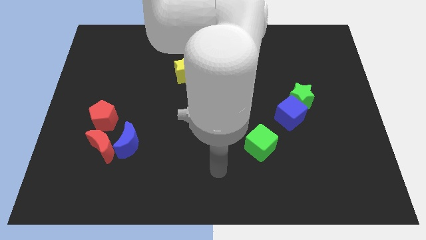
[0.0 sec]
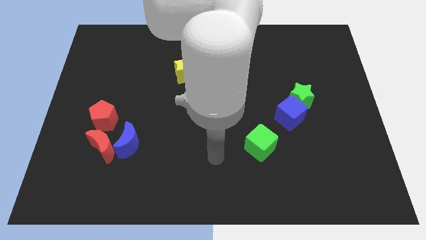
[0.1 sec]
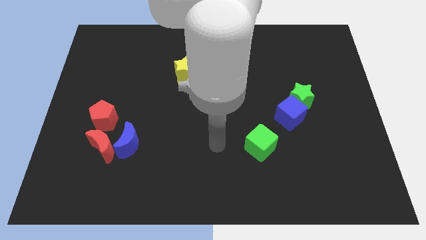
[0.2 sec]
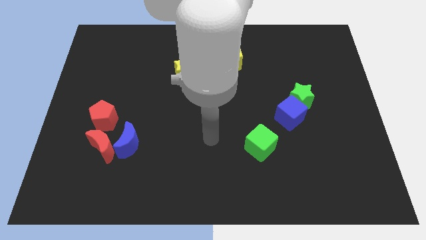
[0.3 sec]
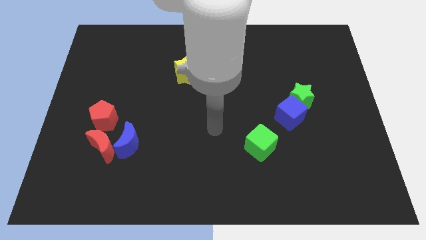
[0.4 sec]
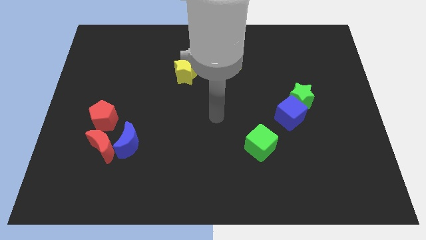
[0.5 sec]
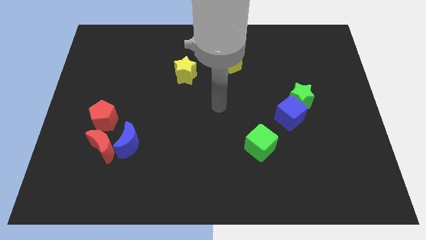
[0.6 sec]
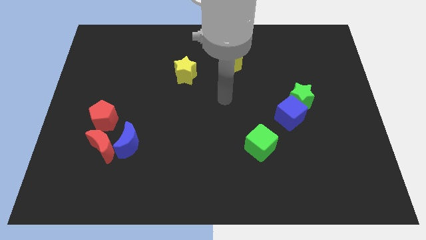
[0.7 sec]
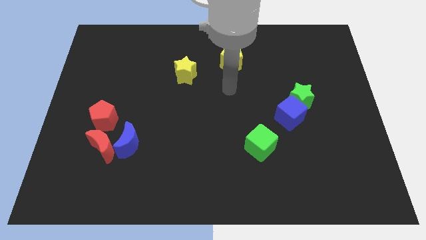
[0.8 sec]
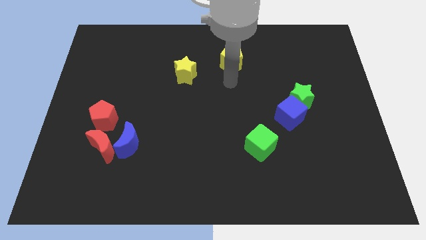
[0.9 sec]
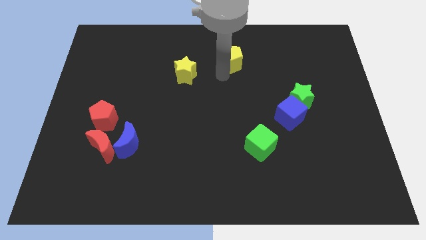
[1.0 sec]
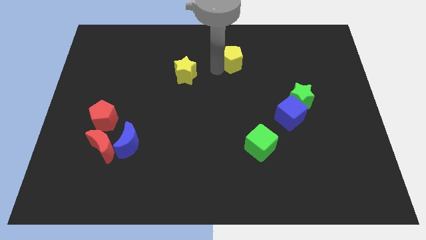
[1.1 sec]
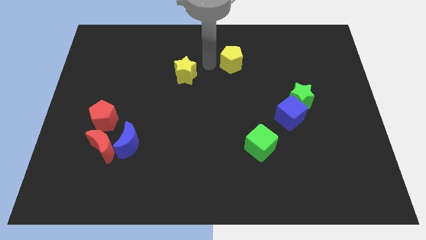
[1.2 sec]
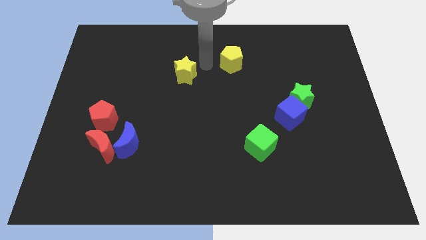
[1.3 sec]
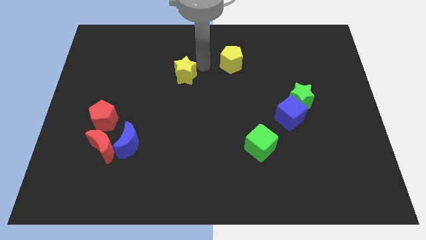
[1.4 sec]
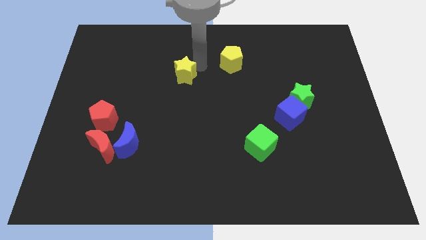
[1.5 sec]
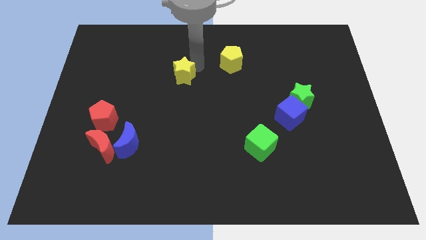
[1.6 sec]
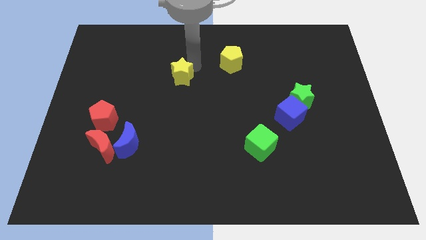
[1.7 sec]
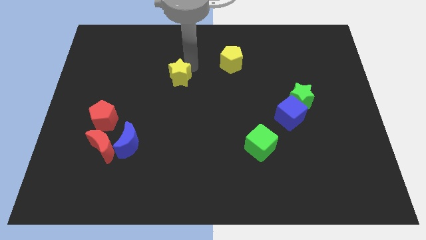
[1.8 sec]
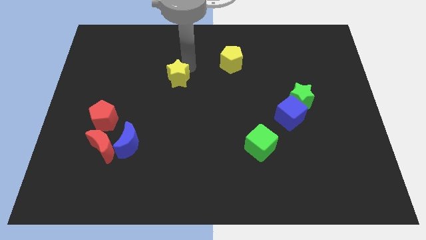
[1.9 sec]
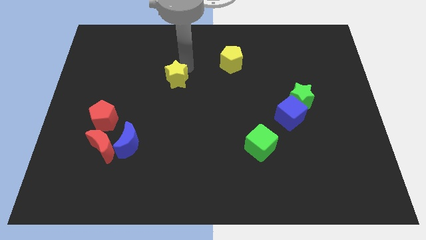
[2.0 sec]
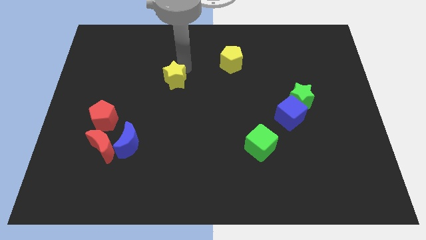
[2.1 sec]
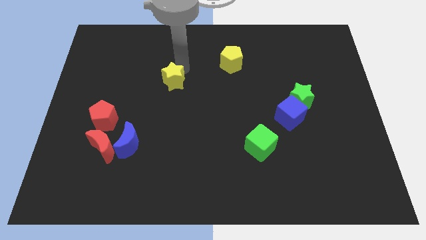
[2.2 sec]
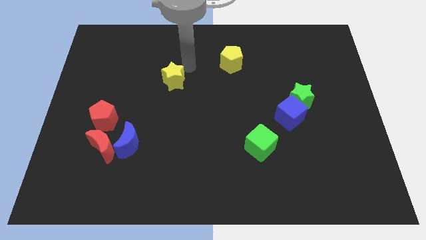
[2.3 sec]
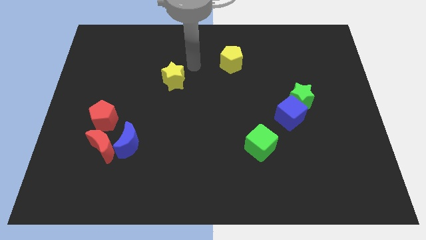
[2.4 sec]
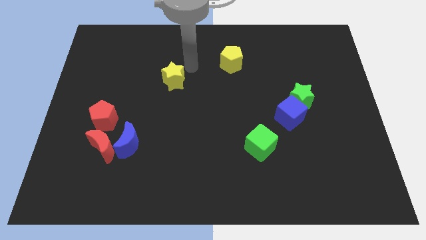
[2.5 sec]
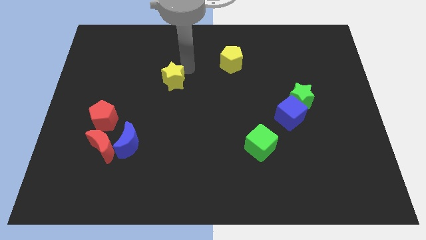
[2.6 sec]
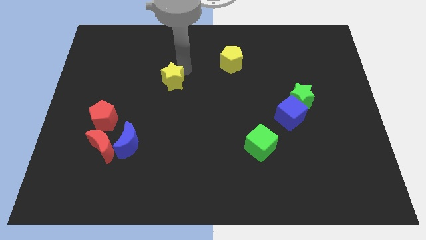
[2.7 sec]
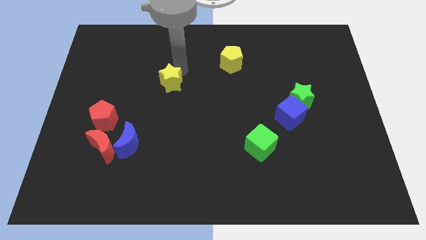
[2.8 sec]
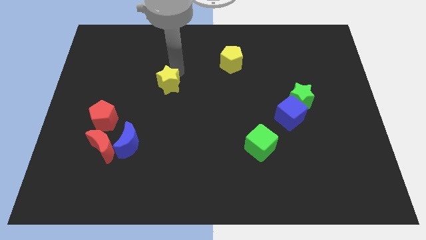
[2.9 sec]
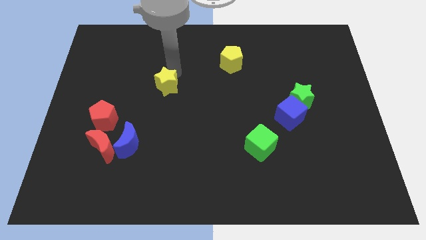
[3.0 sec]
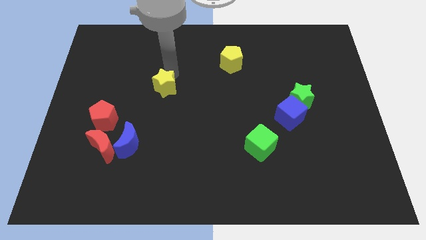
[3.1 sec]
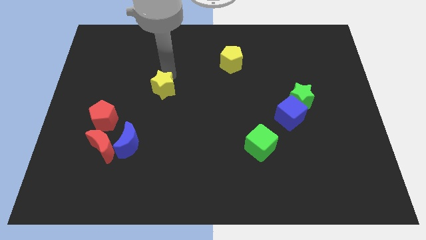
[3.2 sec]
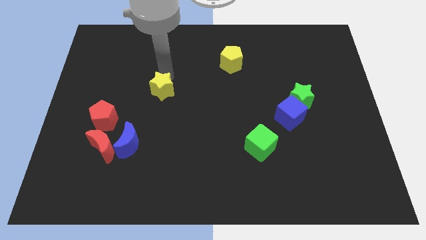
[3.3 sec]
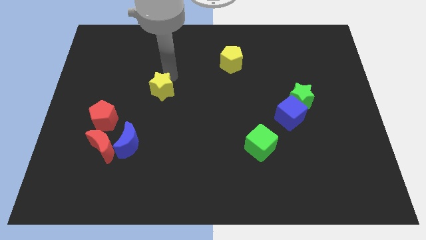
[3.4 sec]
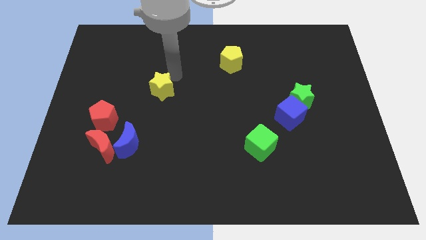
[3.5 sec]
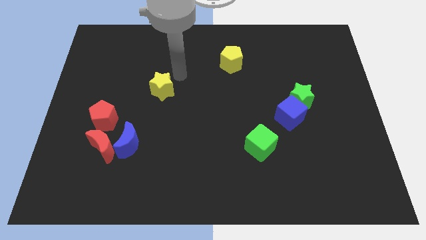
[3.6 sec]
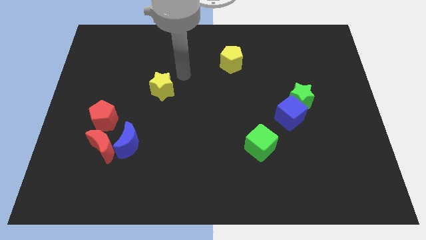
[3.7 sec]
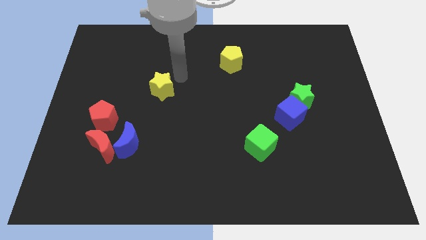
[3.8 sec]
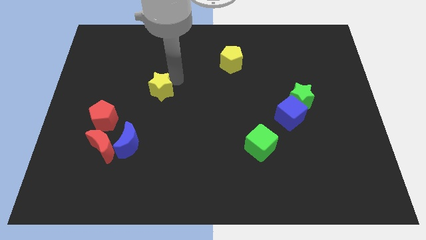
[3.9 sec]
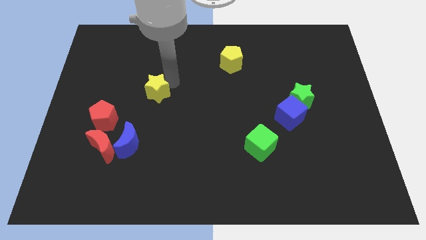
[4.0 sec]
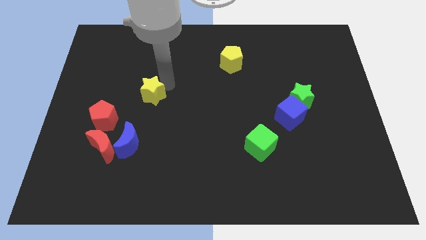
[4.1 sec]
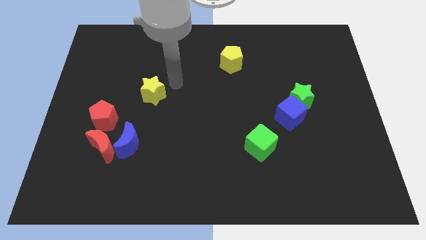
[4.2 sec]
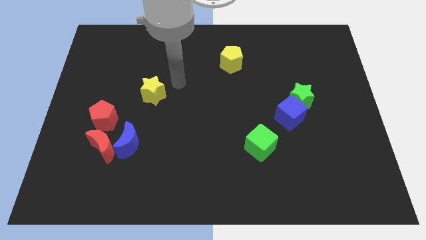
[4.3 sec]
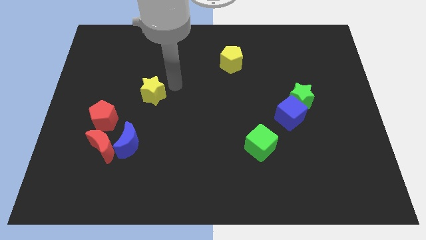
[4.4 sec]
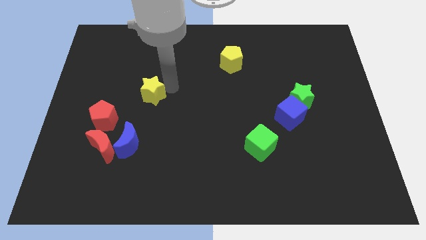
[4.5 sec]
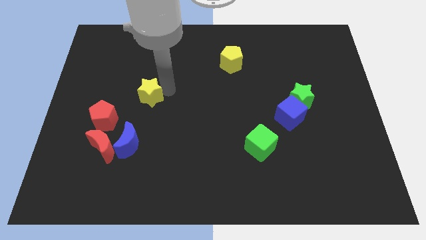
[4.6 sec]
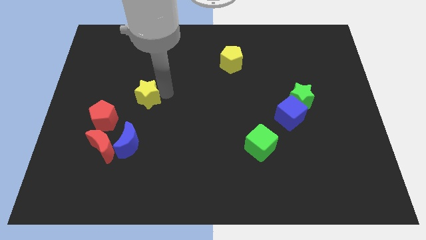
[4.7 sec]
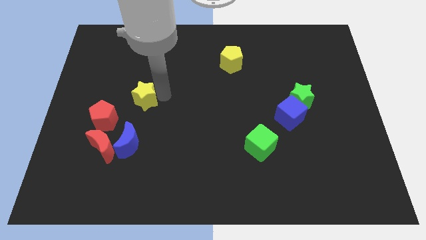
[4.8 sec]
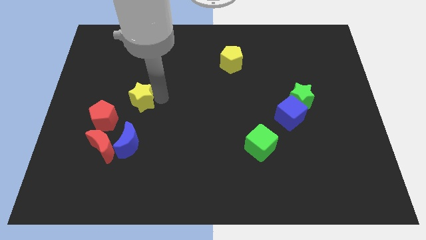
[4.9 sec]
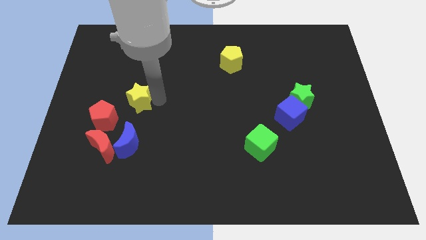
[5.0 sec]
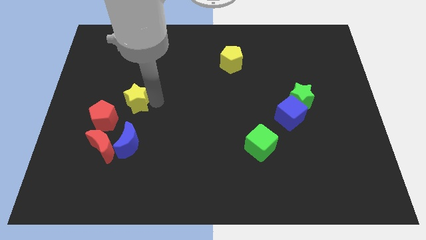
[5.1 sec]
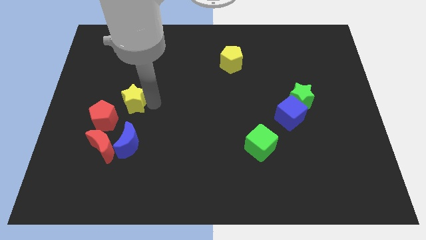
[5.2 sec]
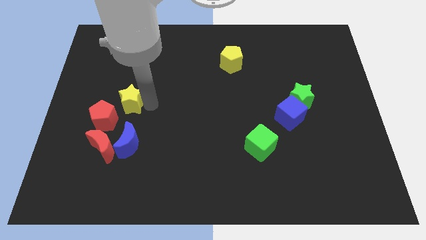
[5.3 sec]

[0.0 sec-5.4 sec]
push the yellow star to the top of the red moon
